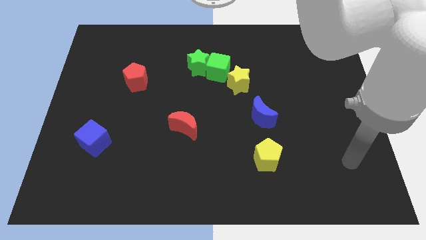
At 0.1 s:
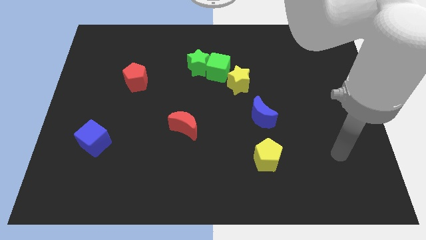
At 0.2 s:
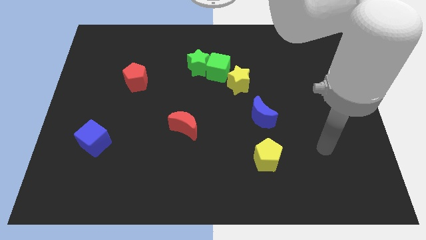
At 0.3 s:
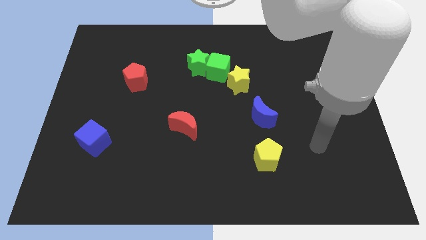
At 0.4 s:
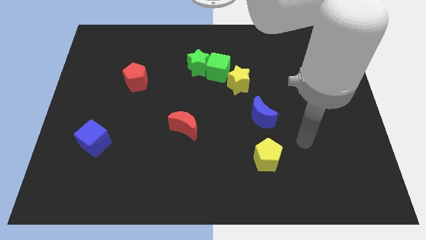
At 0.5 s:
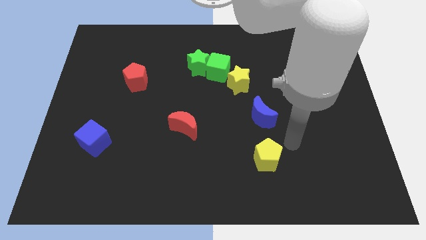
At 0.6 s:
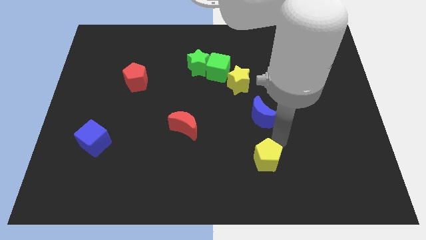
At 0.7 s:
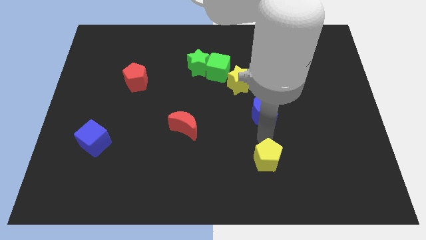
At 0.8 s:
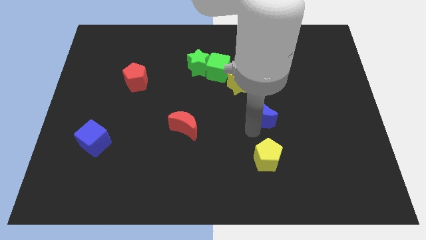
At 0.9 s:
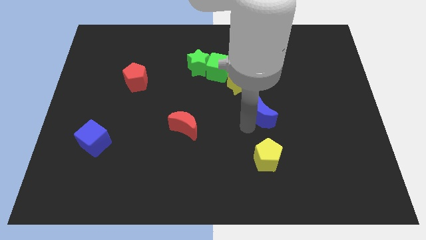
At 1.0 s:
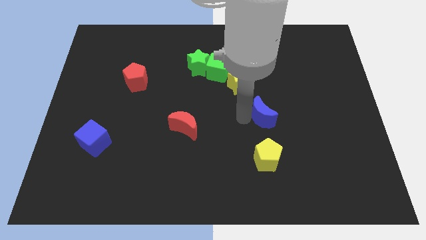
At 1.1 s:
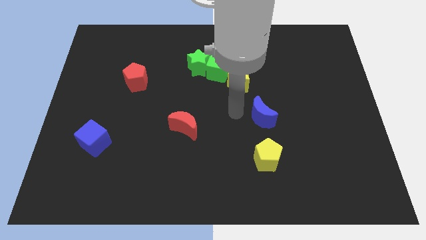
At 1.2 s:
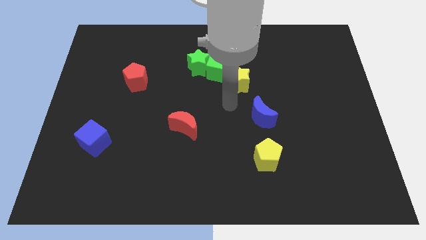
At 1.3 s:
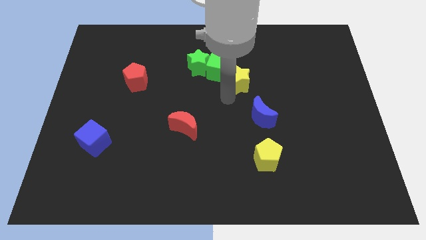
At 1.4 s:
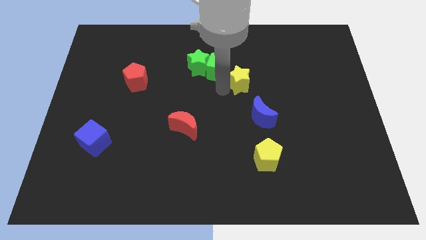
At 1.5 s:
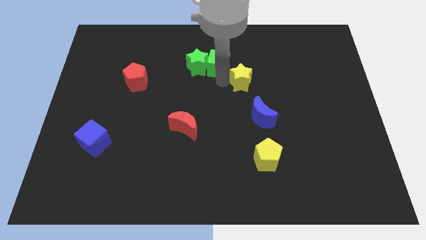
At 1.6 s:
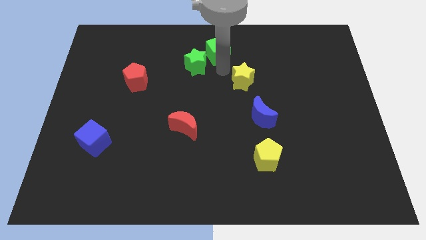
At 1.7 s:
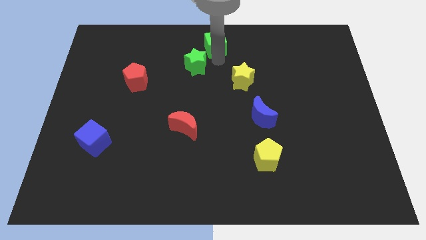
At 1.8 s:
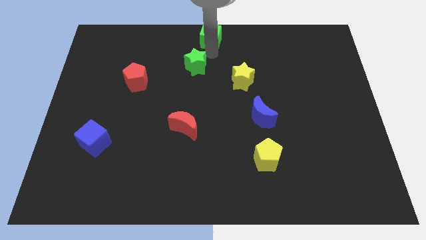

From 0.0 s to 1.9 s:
pull the green star apart from the green cube

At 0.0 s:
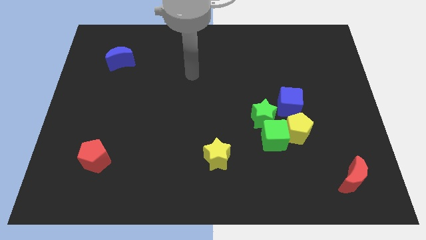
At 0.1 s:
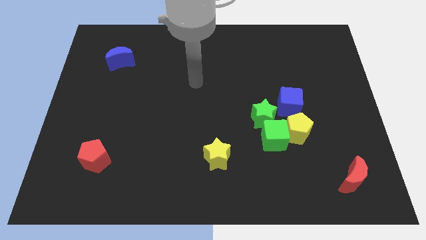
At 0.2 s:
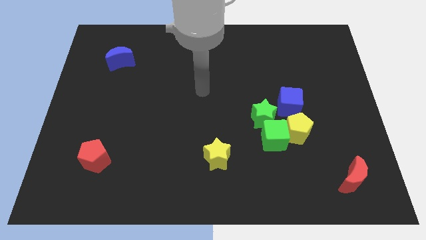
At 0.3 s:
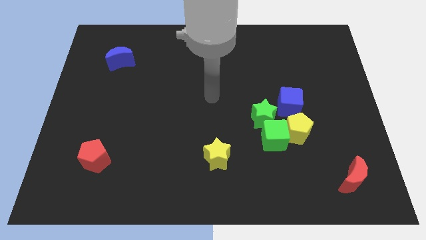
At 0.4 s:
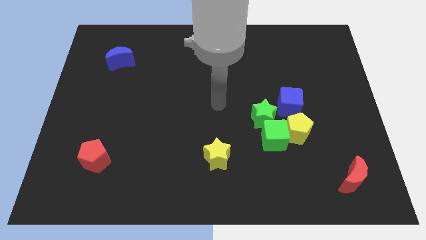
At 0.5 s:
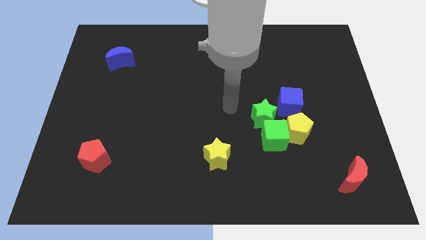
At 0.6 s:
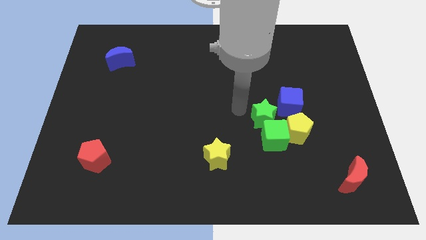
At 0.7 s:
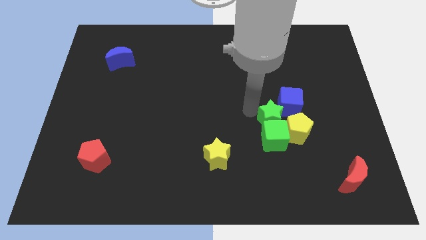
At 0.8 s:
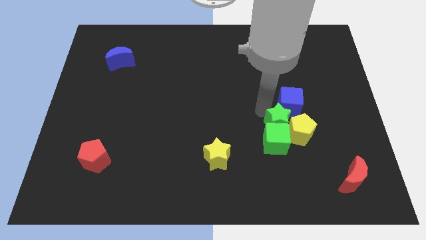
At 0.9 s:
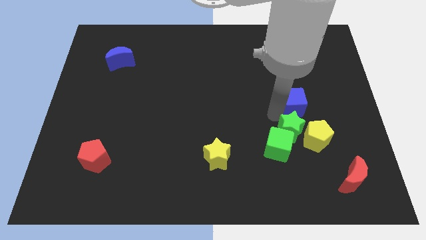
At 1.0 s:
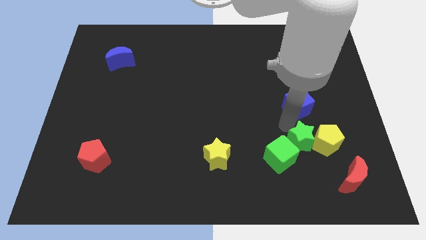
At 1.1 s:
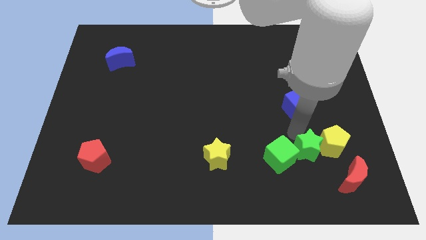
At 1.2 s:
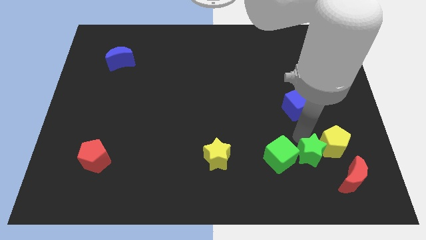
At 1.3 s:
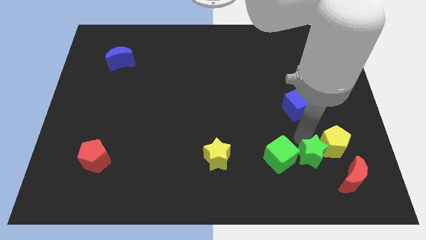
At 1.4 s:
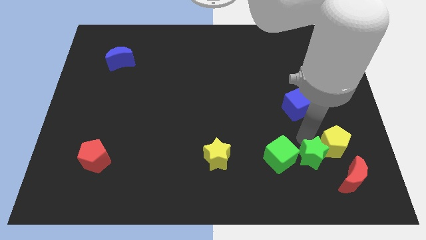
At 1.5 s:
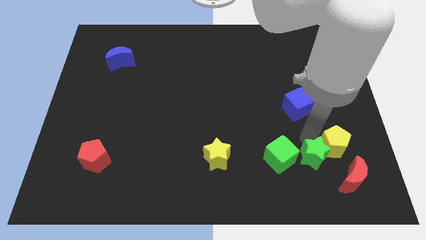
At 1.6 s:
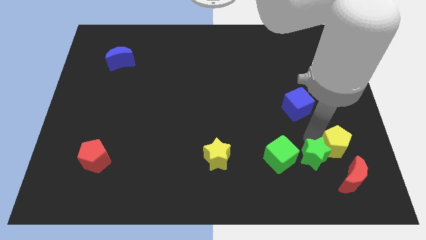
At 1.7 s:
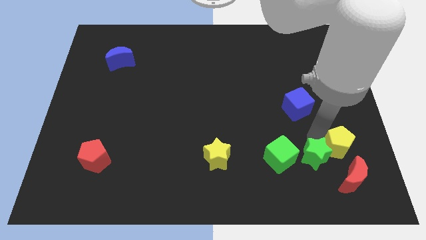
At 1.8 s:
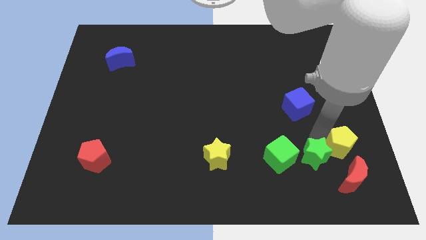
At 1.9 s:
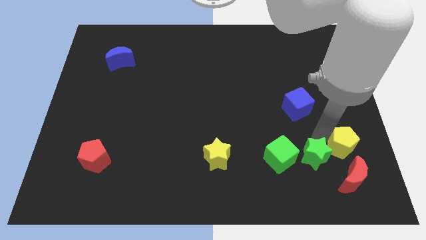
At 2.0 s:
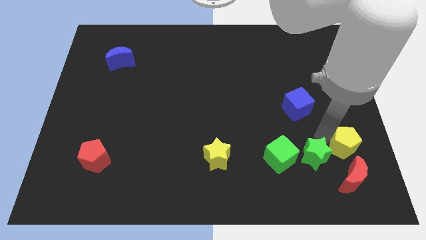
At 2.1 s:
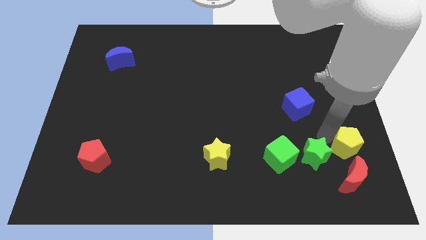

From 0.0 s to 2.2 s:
separate the yellow pentagon from the green cube, blue cube, and green star

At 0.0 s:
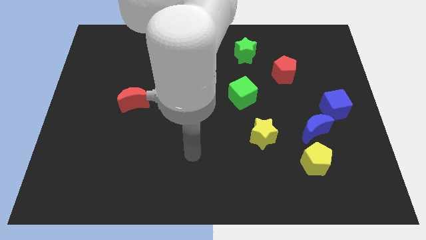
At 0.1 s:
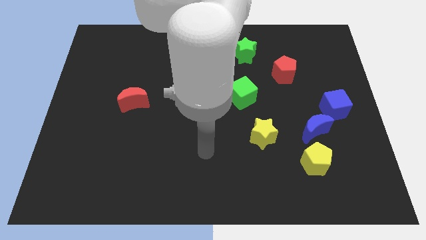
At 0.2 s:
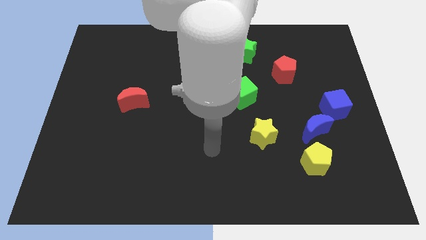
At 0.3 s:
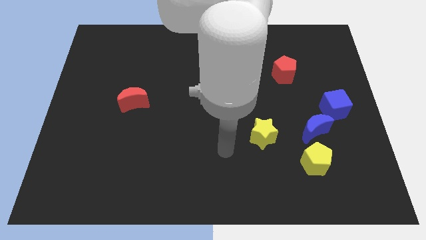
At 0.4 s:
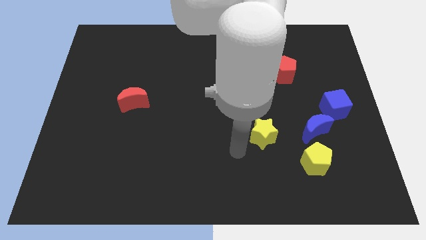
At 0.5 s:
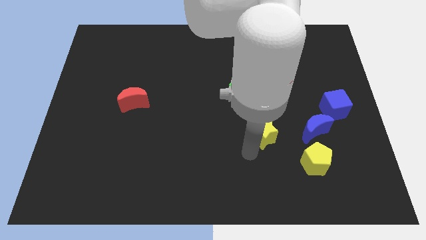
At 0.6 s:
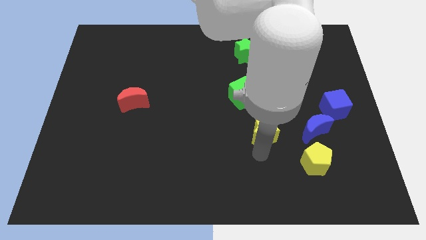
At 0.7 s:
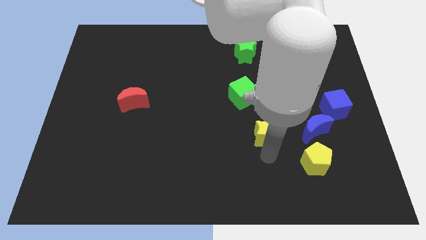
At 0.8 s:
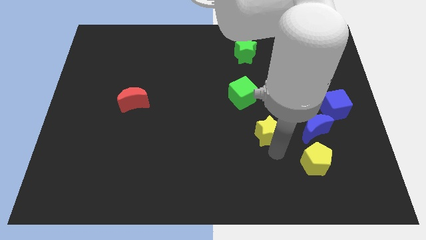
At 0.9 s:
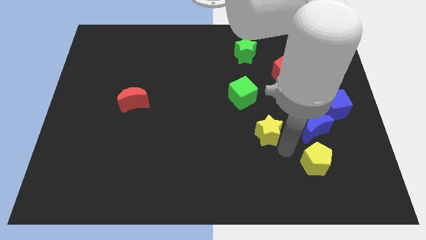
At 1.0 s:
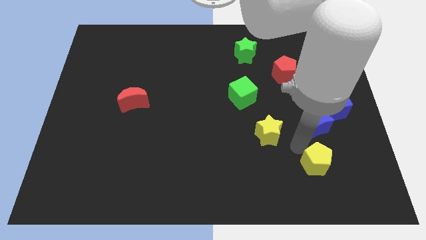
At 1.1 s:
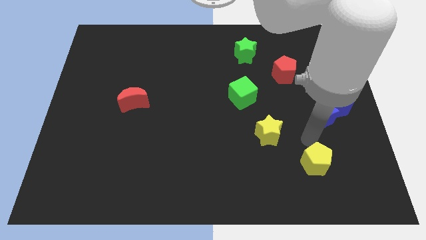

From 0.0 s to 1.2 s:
pull the yellow pentagon apart from the blue moon

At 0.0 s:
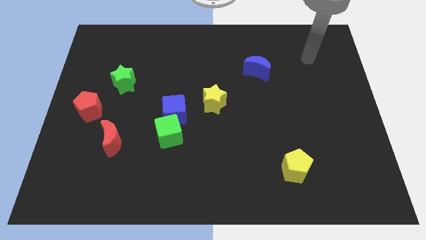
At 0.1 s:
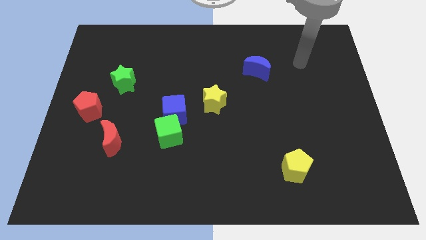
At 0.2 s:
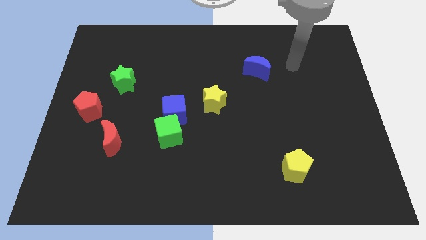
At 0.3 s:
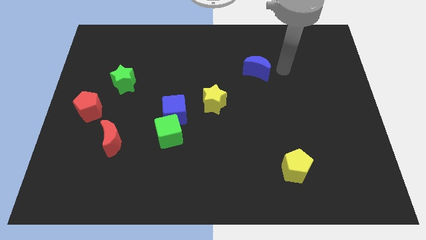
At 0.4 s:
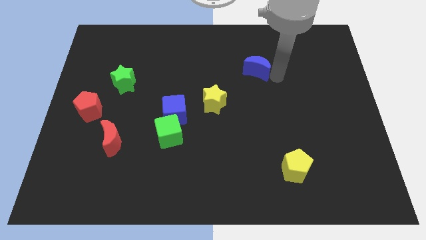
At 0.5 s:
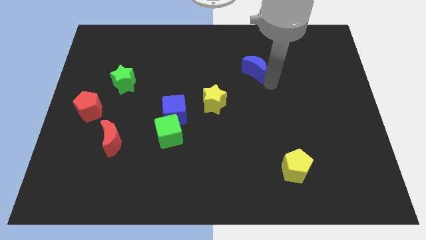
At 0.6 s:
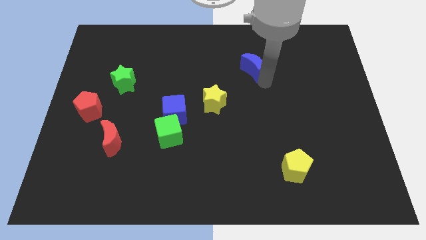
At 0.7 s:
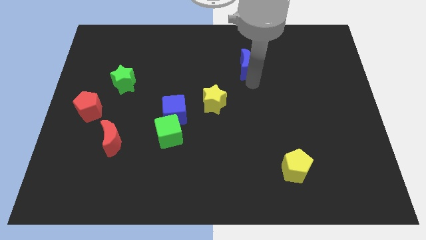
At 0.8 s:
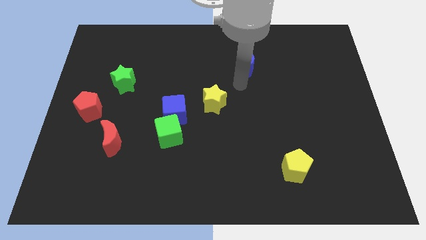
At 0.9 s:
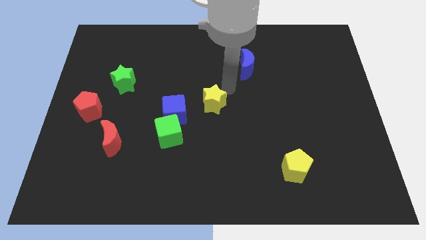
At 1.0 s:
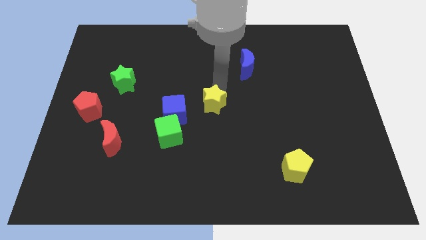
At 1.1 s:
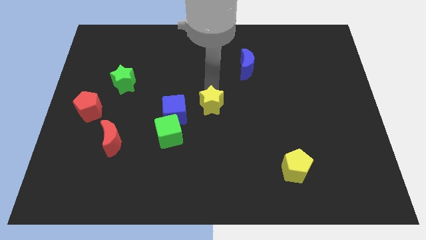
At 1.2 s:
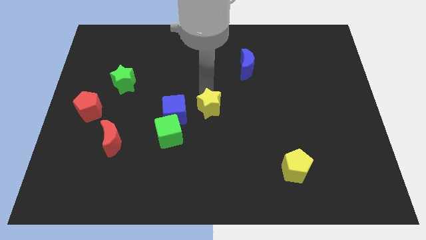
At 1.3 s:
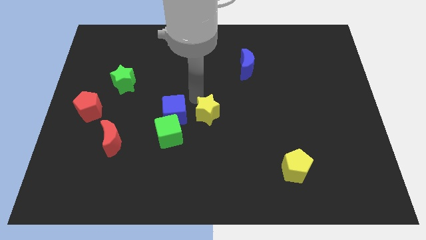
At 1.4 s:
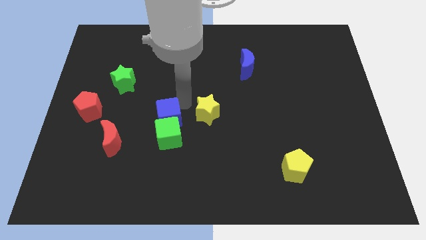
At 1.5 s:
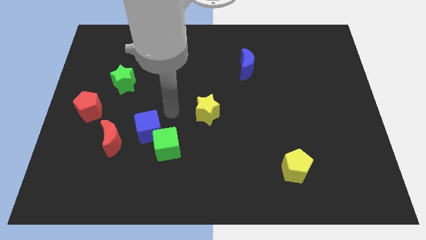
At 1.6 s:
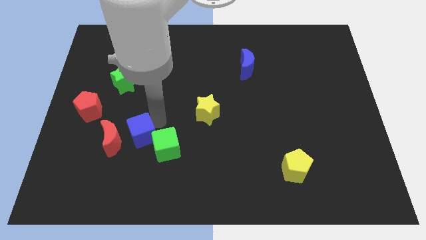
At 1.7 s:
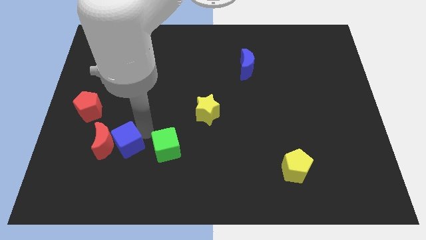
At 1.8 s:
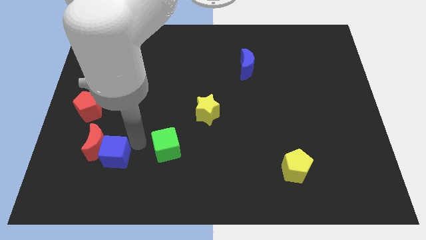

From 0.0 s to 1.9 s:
separate the green cube from the blue cube

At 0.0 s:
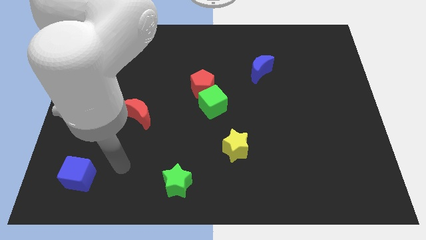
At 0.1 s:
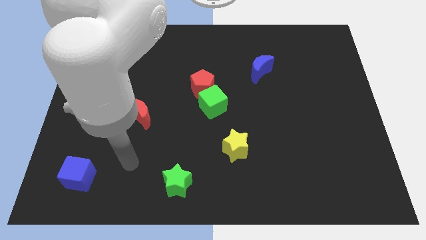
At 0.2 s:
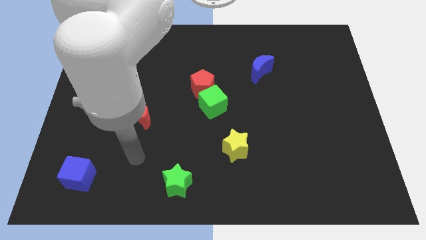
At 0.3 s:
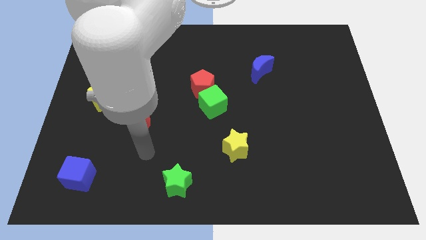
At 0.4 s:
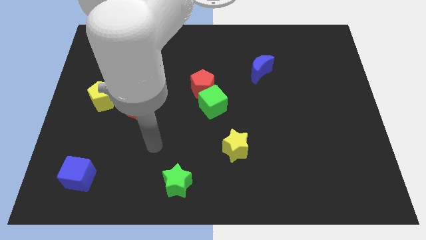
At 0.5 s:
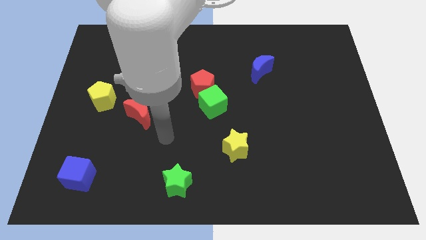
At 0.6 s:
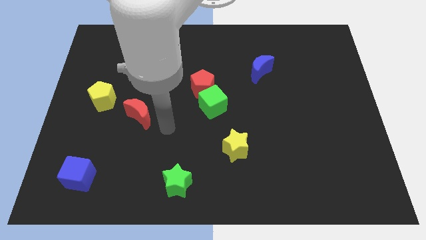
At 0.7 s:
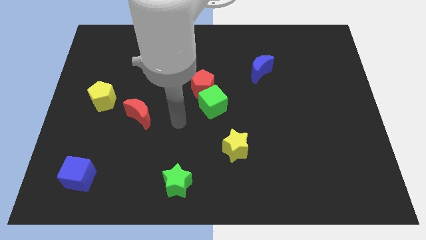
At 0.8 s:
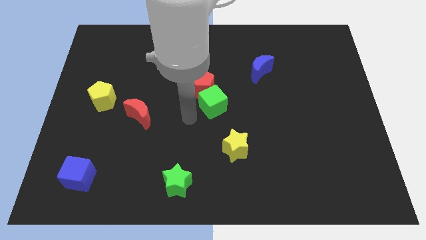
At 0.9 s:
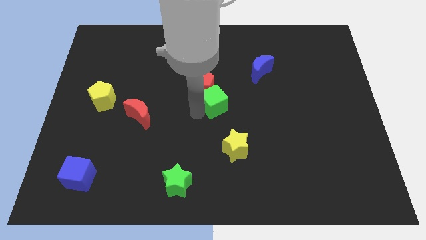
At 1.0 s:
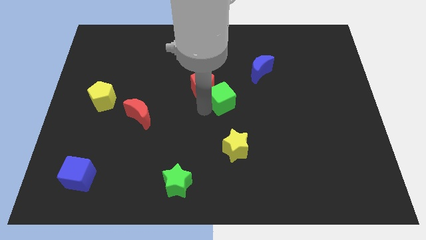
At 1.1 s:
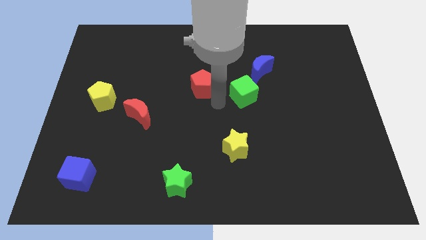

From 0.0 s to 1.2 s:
separate the red pentagon from the green cube

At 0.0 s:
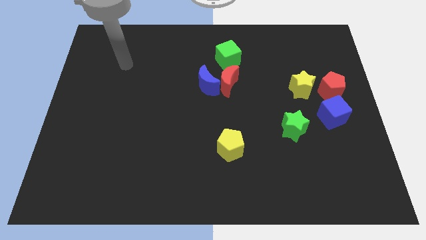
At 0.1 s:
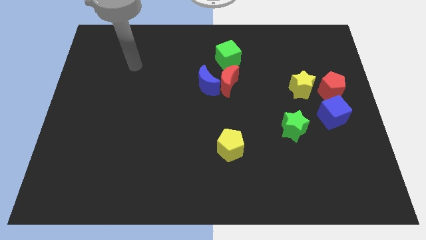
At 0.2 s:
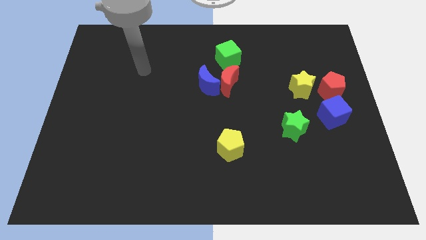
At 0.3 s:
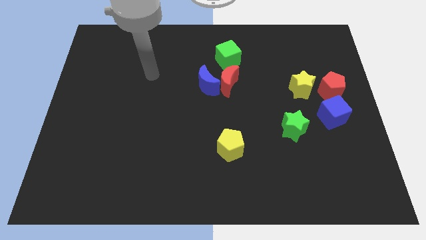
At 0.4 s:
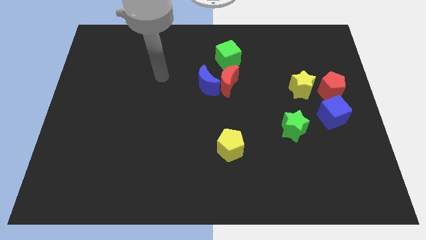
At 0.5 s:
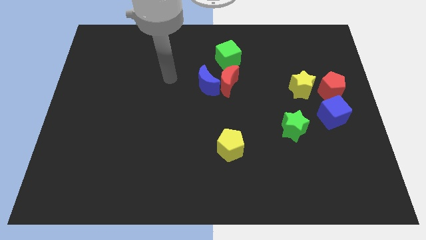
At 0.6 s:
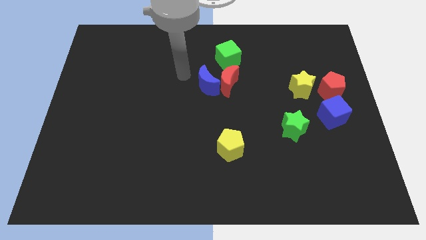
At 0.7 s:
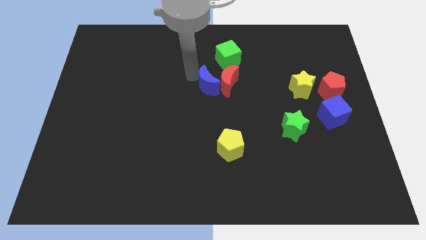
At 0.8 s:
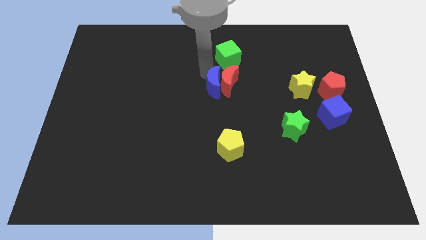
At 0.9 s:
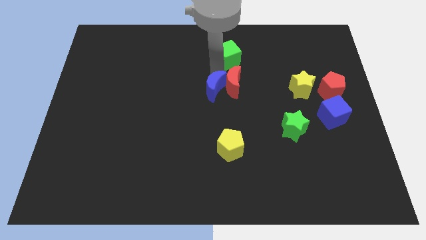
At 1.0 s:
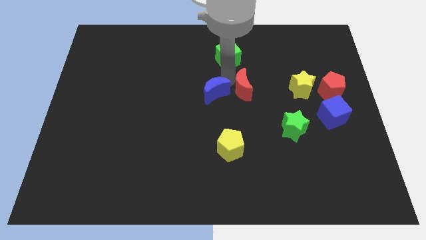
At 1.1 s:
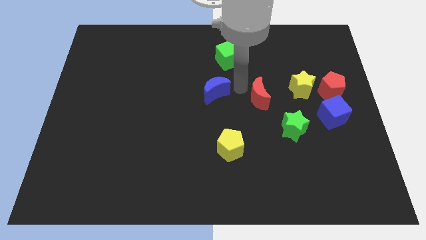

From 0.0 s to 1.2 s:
separate the blue moon from the red moon
